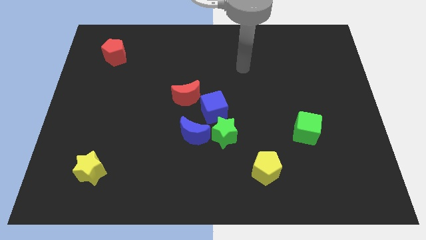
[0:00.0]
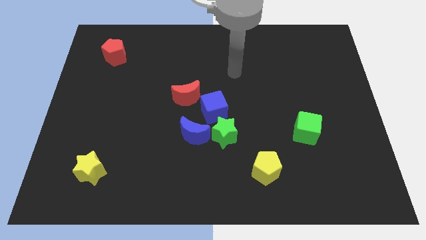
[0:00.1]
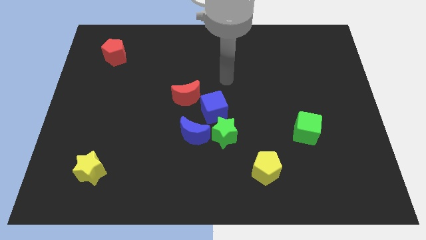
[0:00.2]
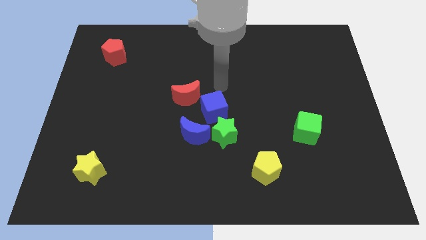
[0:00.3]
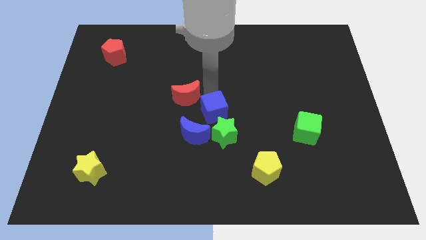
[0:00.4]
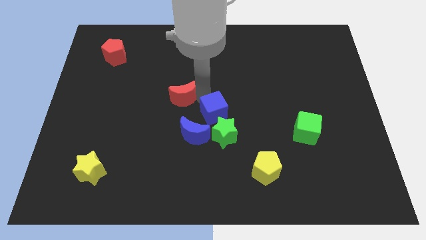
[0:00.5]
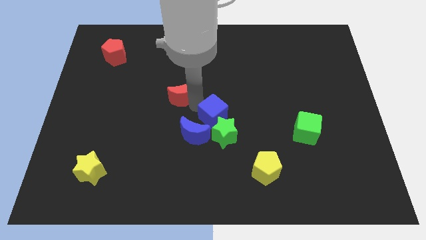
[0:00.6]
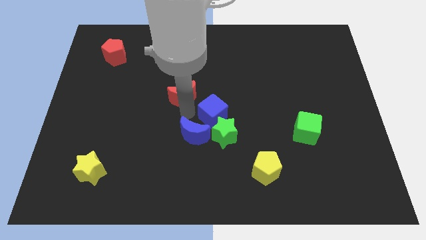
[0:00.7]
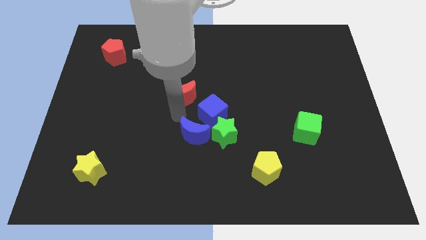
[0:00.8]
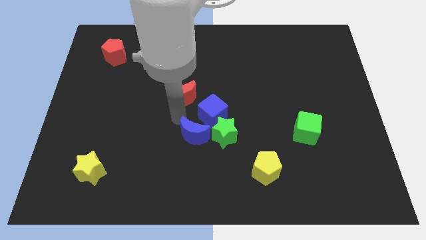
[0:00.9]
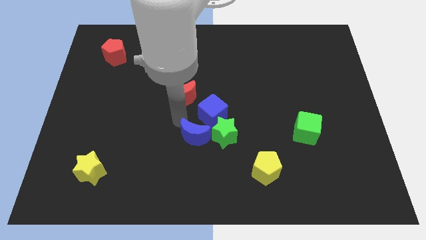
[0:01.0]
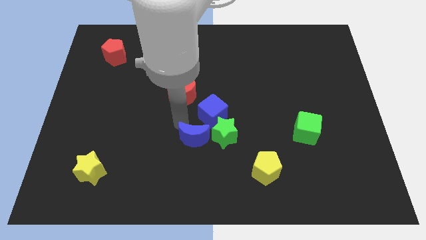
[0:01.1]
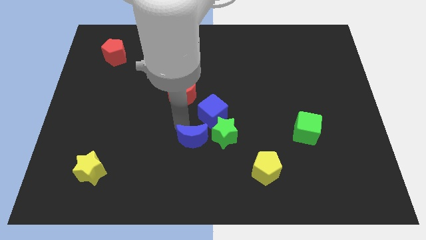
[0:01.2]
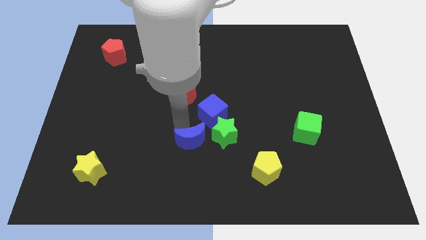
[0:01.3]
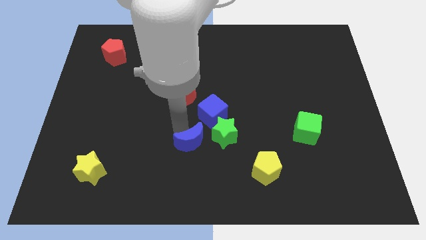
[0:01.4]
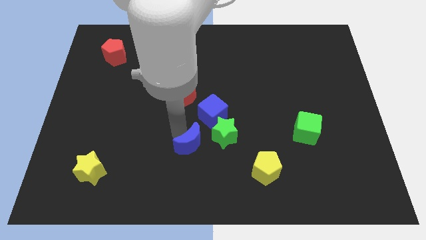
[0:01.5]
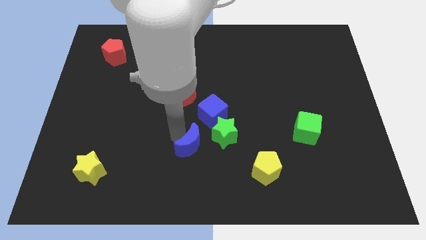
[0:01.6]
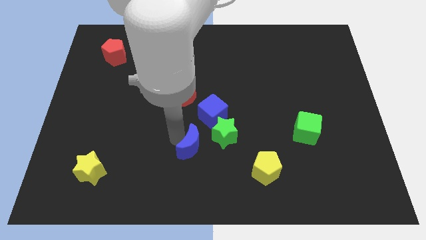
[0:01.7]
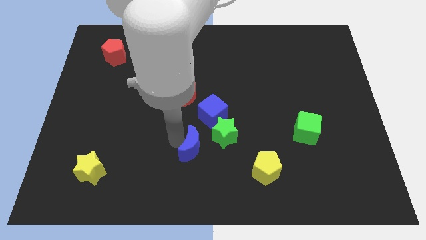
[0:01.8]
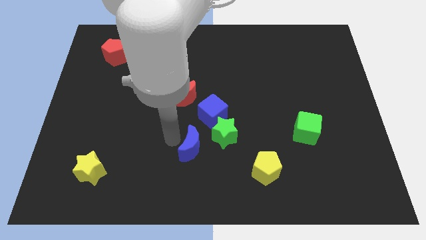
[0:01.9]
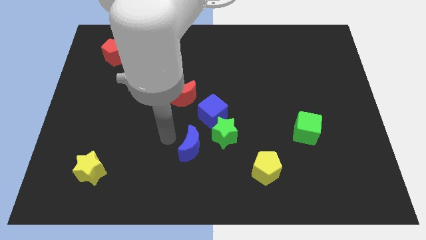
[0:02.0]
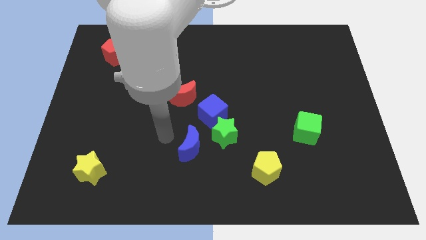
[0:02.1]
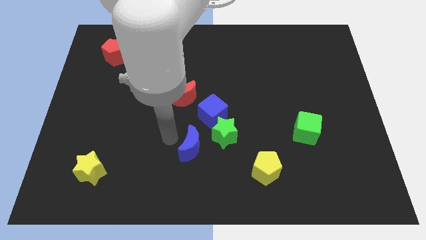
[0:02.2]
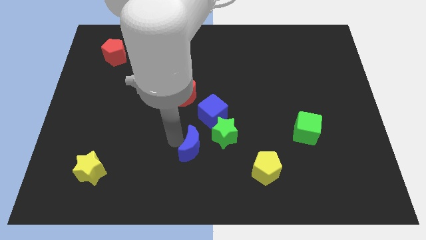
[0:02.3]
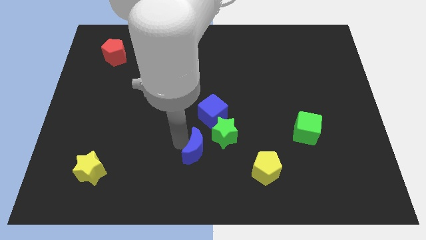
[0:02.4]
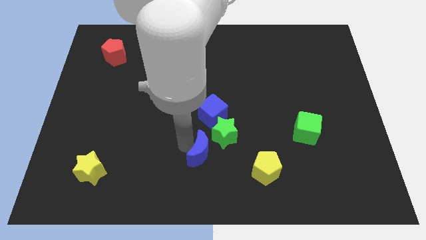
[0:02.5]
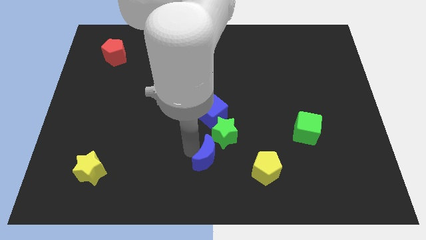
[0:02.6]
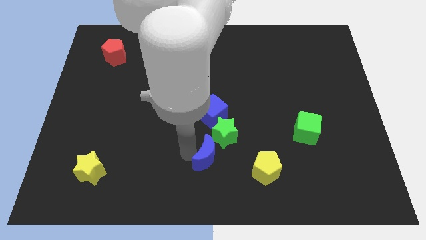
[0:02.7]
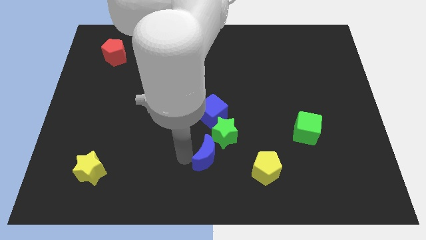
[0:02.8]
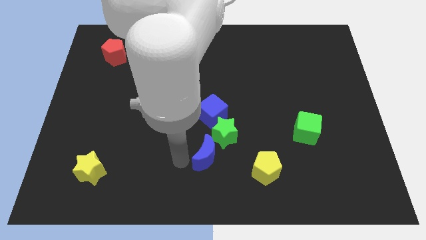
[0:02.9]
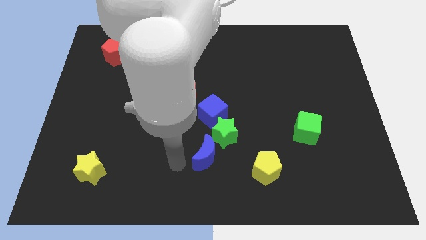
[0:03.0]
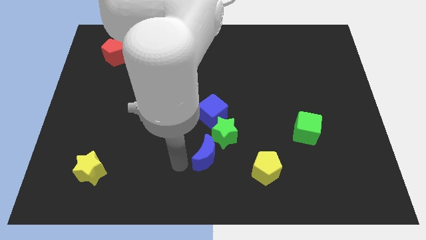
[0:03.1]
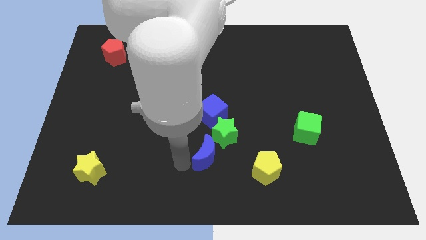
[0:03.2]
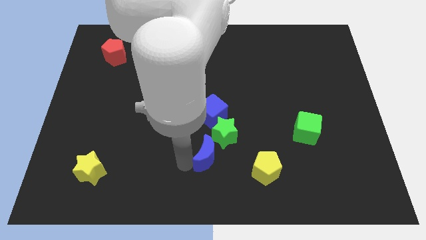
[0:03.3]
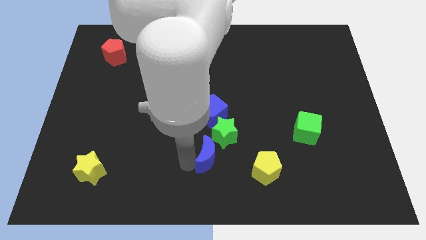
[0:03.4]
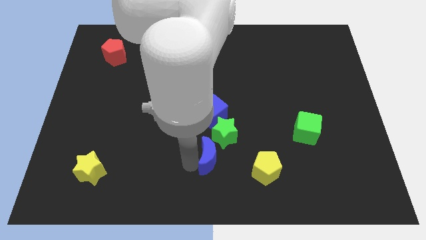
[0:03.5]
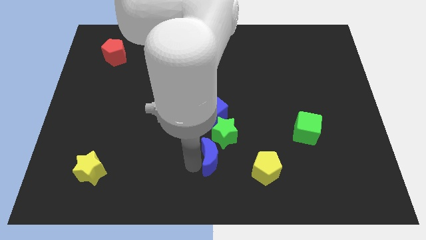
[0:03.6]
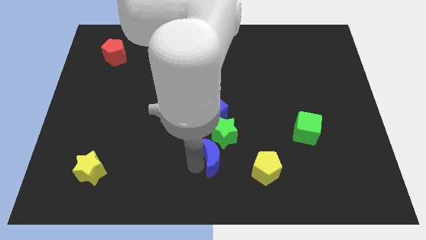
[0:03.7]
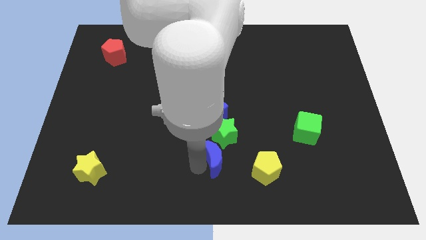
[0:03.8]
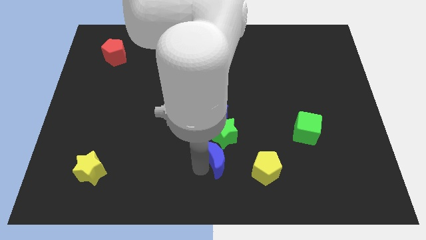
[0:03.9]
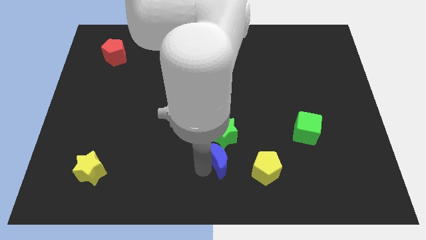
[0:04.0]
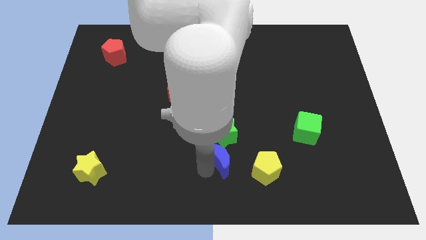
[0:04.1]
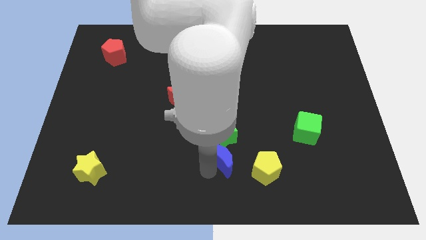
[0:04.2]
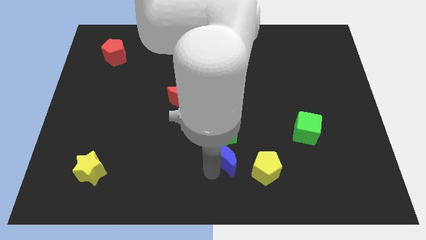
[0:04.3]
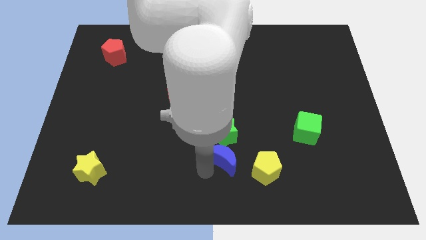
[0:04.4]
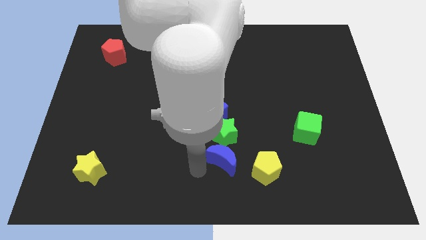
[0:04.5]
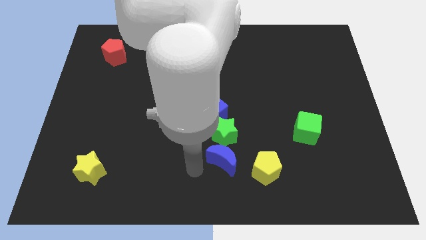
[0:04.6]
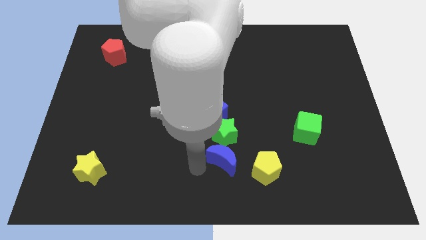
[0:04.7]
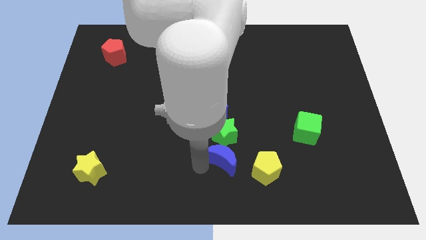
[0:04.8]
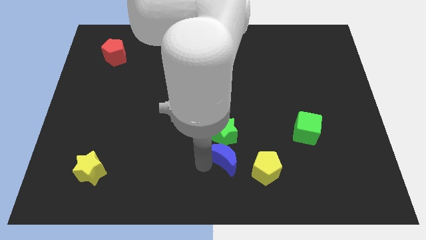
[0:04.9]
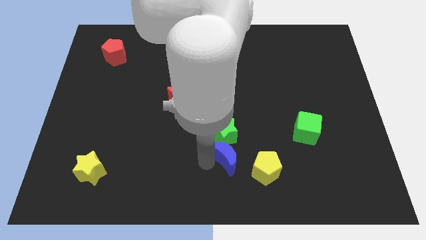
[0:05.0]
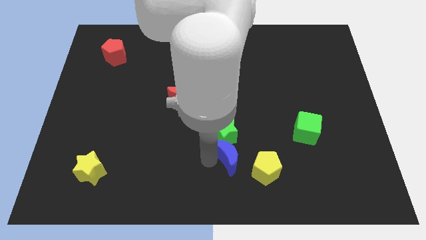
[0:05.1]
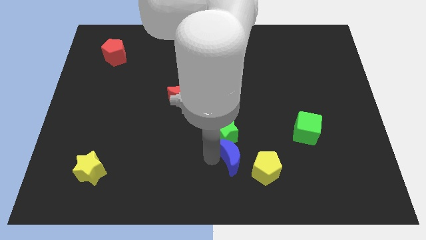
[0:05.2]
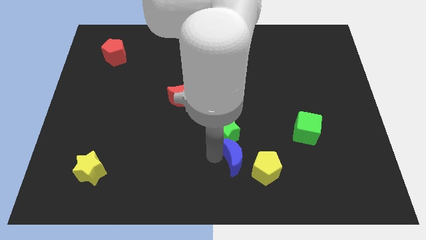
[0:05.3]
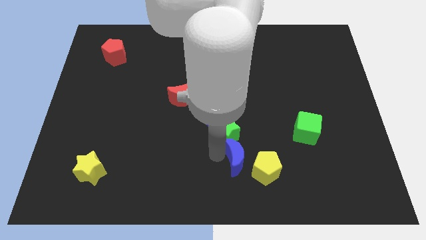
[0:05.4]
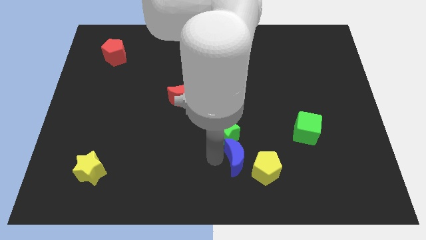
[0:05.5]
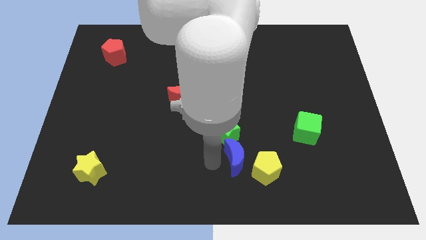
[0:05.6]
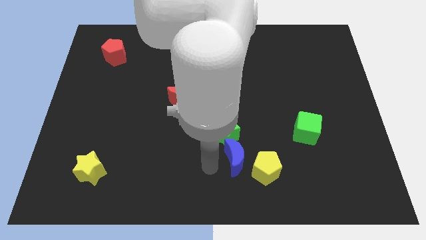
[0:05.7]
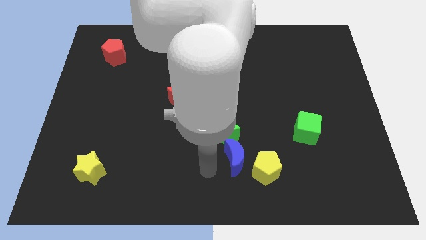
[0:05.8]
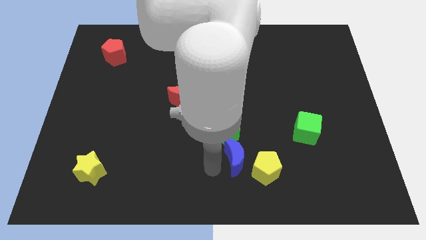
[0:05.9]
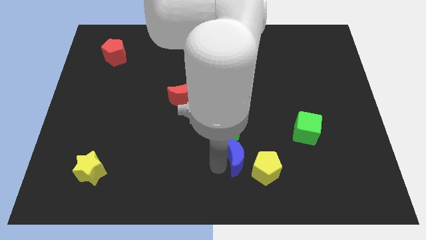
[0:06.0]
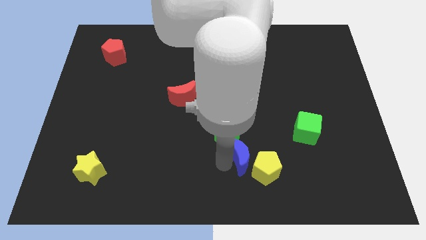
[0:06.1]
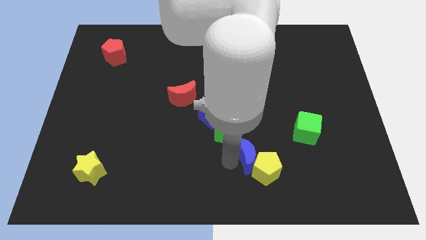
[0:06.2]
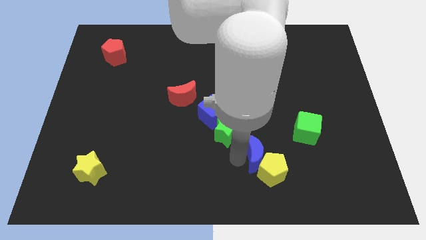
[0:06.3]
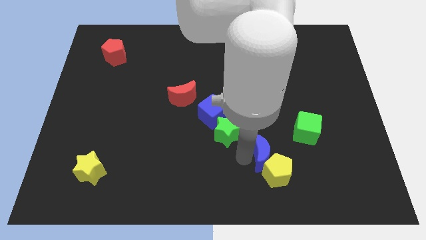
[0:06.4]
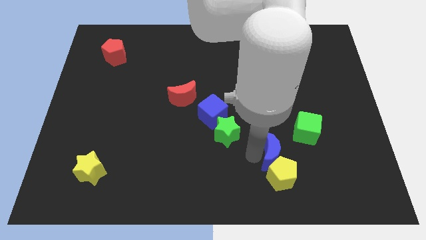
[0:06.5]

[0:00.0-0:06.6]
push the blue moon diagonally up and to the right of the yellow pentagon

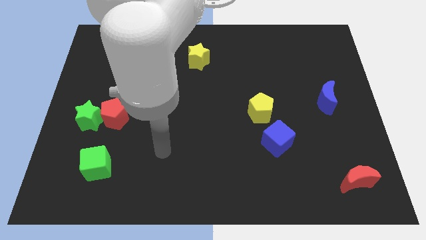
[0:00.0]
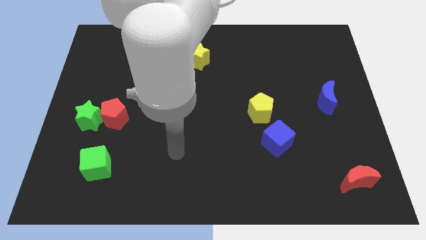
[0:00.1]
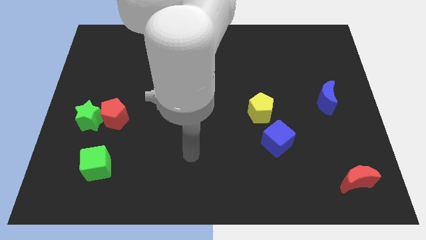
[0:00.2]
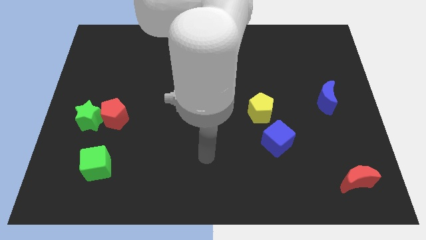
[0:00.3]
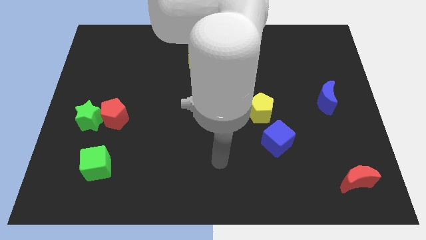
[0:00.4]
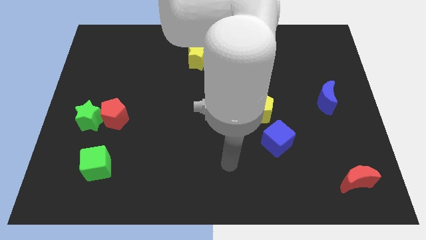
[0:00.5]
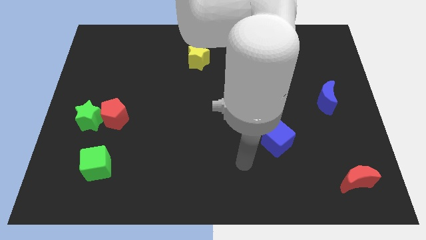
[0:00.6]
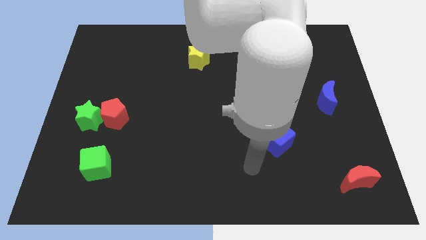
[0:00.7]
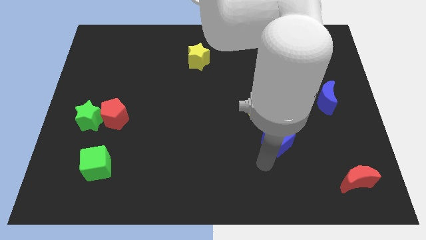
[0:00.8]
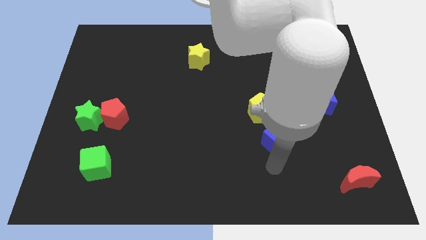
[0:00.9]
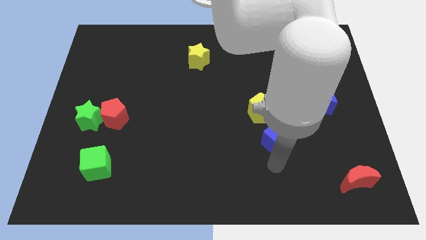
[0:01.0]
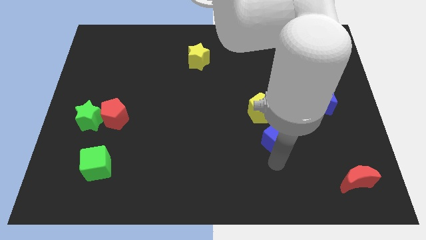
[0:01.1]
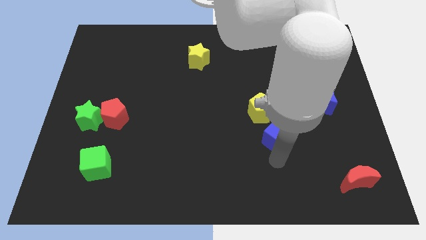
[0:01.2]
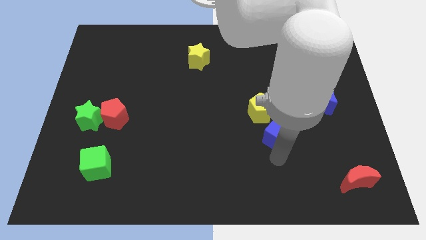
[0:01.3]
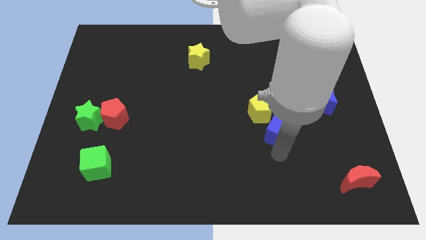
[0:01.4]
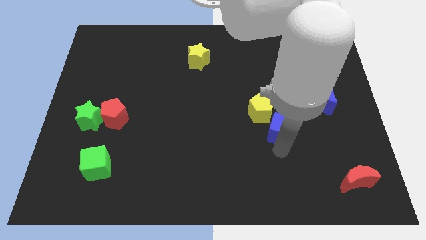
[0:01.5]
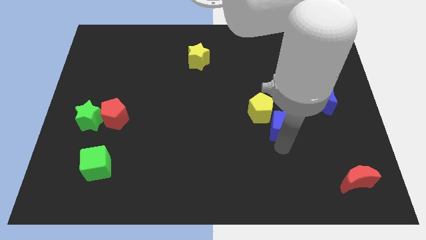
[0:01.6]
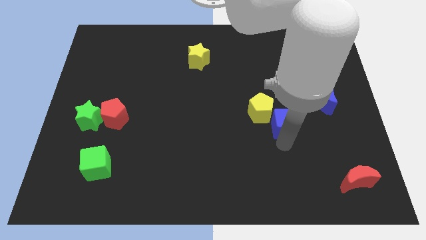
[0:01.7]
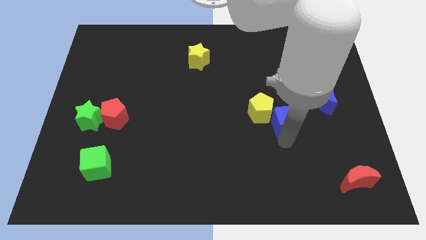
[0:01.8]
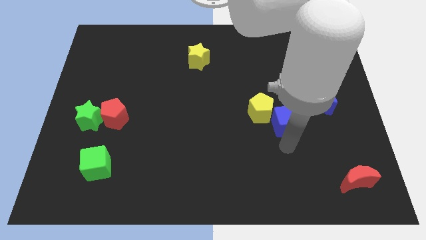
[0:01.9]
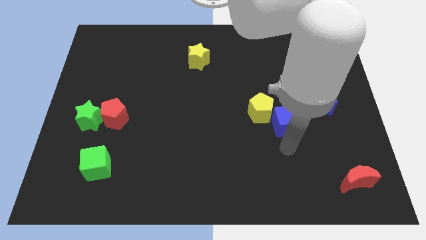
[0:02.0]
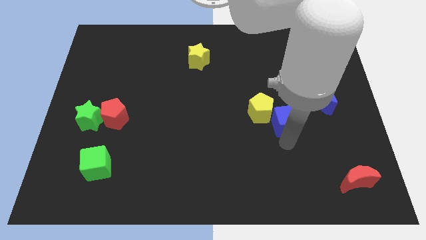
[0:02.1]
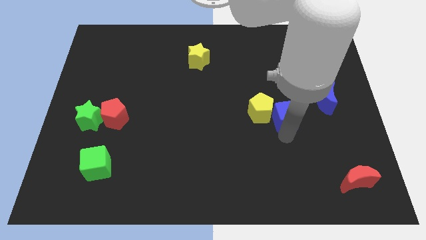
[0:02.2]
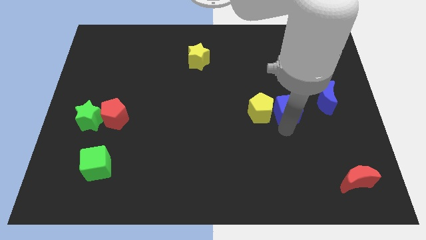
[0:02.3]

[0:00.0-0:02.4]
move the blue cube to the left side of the blue moon
